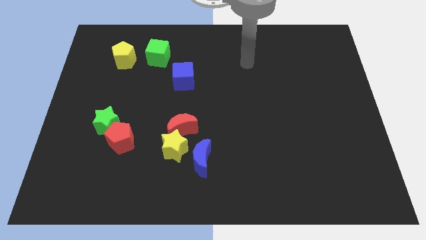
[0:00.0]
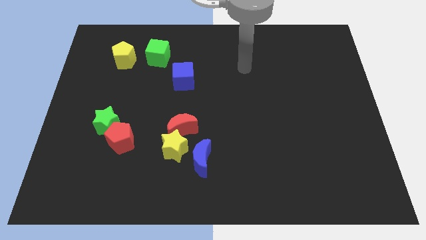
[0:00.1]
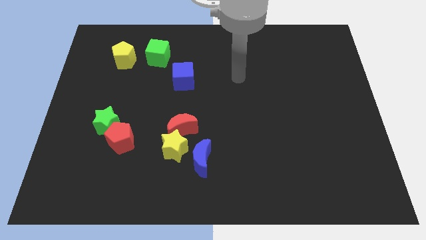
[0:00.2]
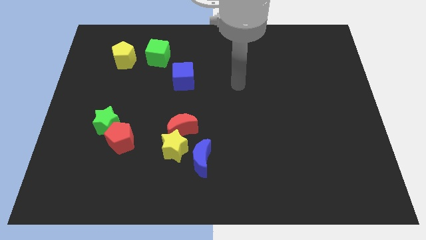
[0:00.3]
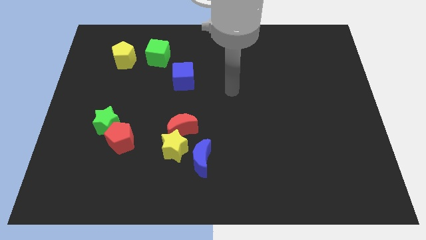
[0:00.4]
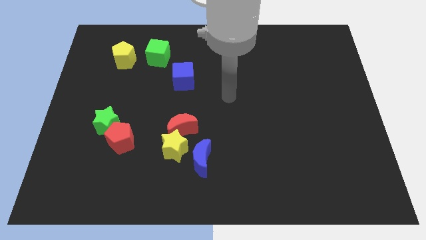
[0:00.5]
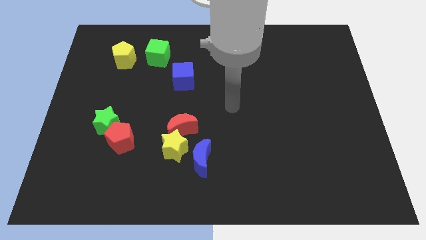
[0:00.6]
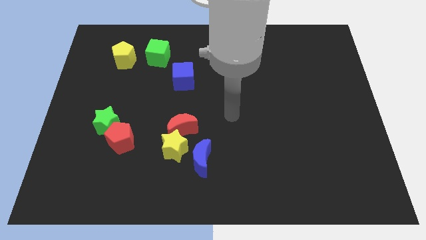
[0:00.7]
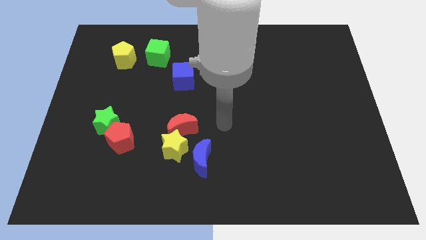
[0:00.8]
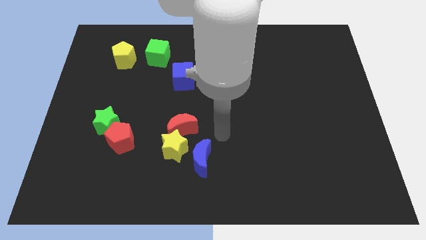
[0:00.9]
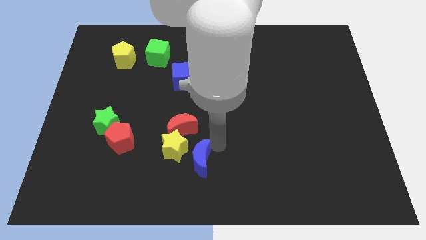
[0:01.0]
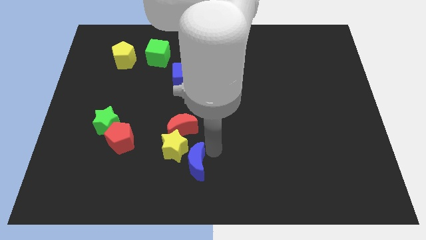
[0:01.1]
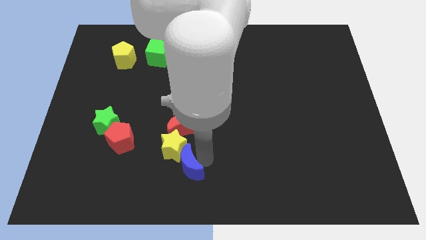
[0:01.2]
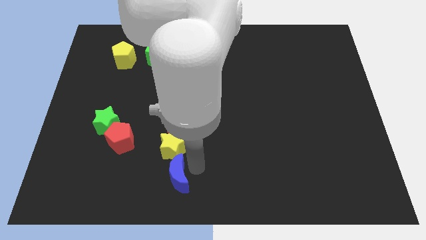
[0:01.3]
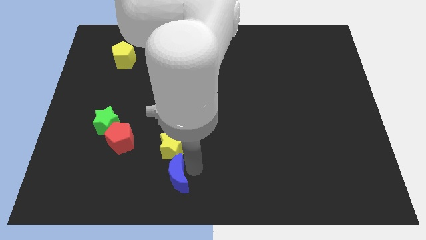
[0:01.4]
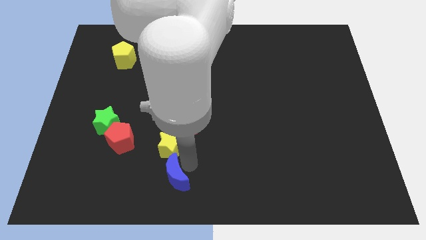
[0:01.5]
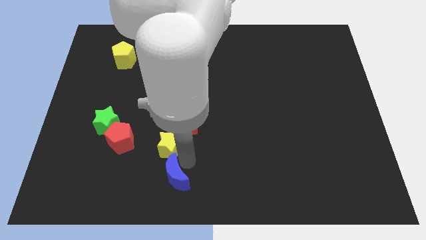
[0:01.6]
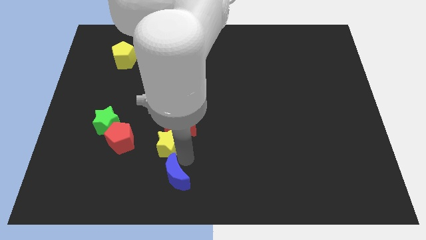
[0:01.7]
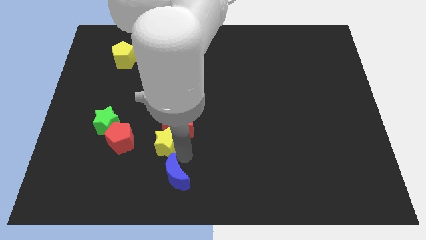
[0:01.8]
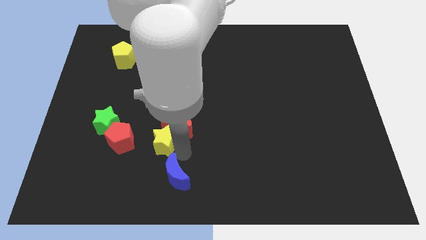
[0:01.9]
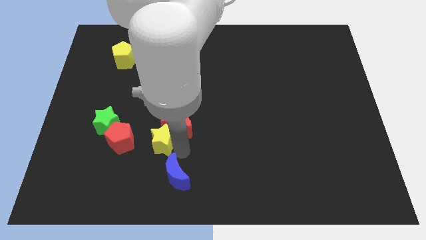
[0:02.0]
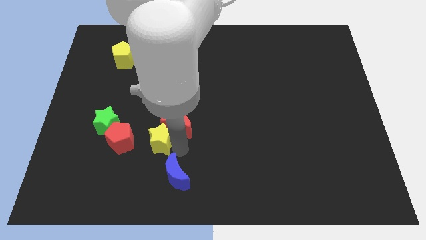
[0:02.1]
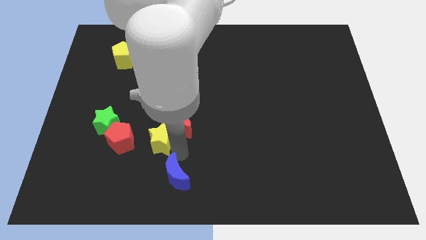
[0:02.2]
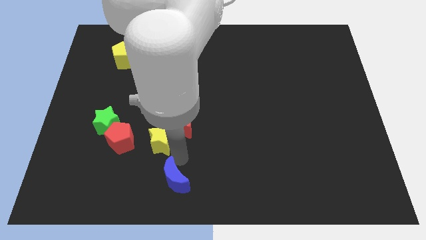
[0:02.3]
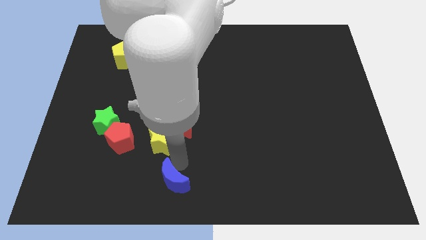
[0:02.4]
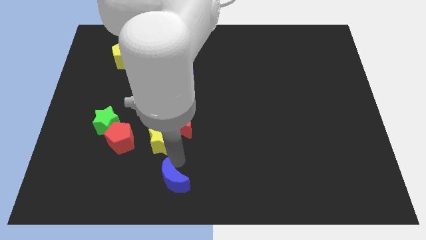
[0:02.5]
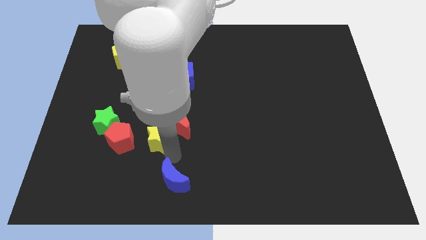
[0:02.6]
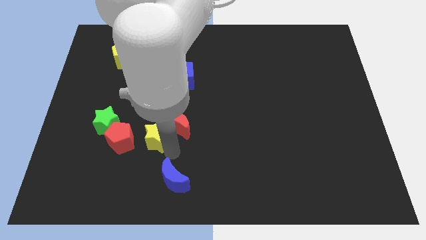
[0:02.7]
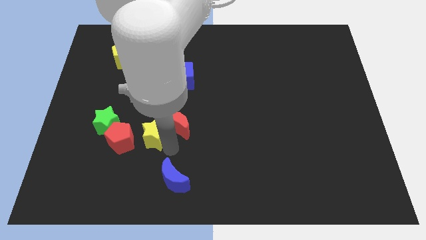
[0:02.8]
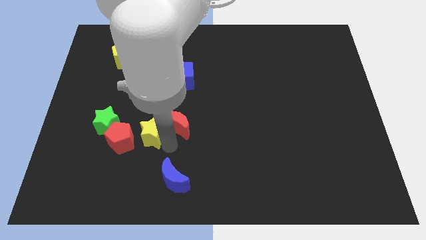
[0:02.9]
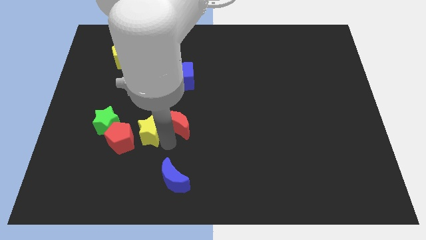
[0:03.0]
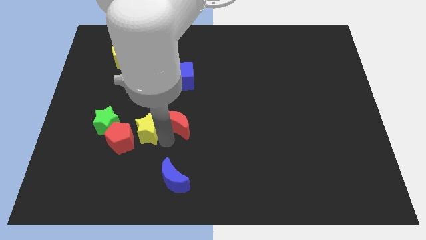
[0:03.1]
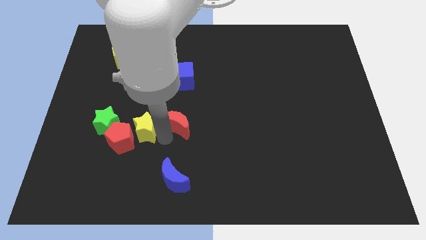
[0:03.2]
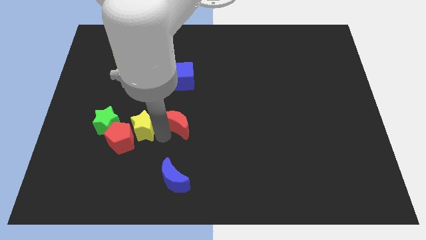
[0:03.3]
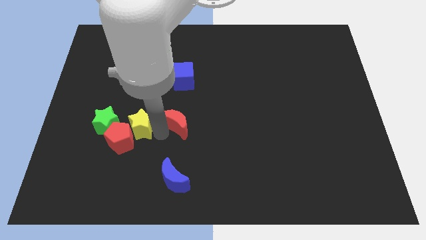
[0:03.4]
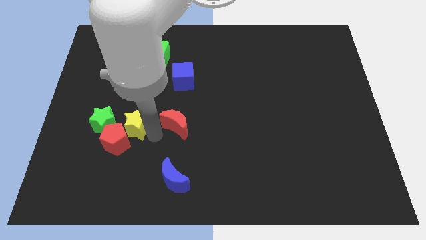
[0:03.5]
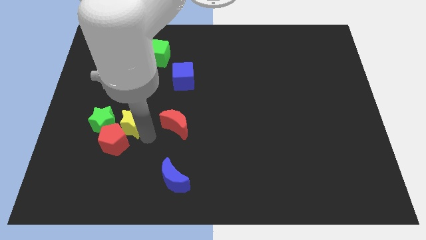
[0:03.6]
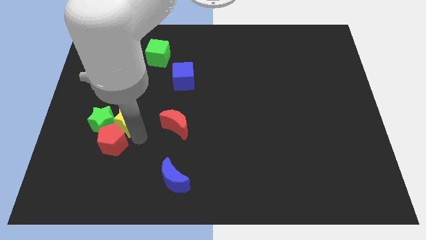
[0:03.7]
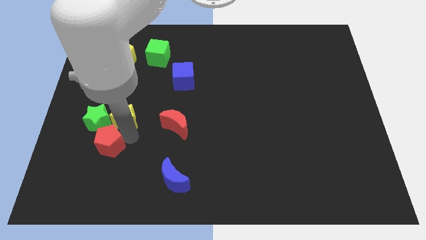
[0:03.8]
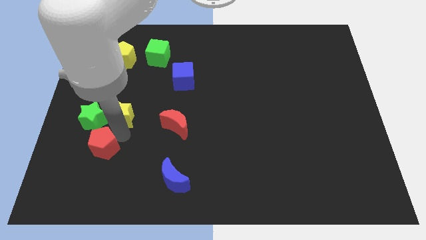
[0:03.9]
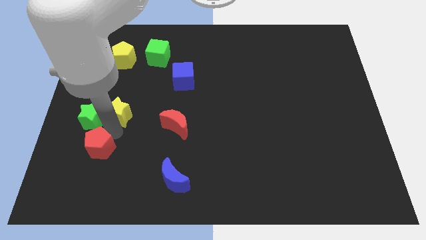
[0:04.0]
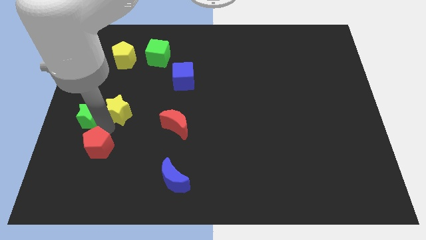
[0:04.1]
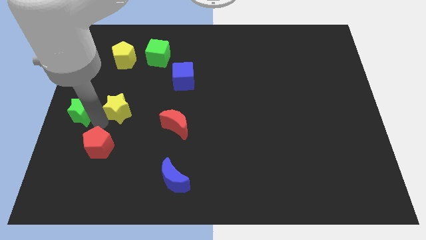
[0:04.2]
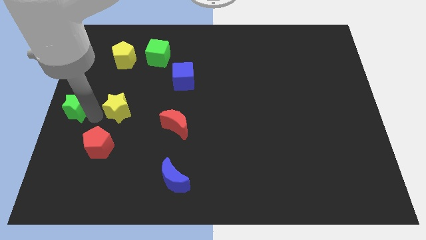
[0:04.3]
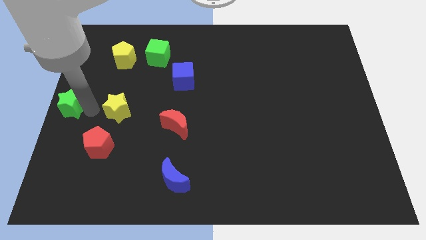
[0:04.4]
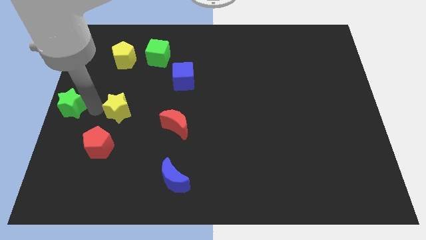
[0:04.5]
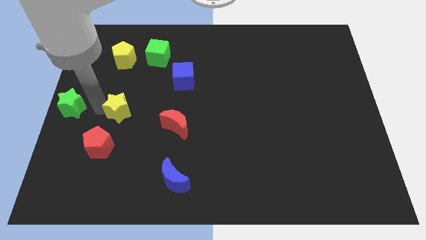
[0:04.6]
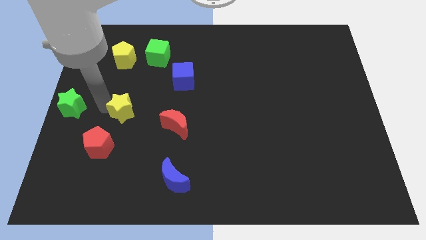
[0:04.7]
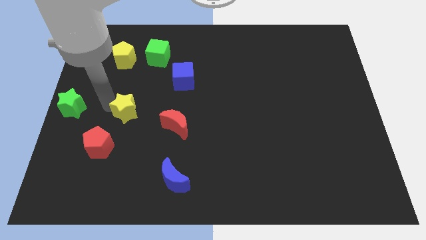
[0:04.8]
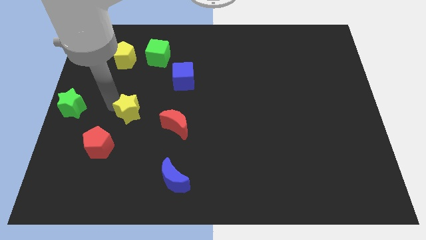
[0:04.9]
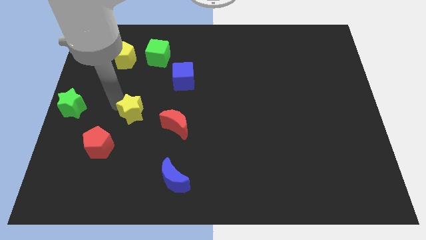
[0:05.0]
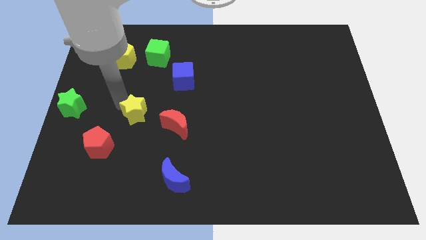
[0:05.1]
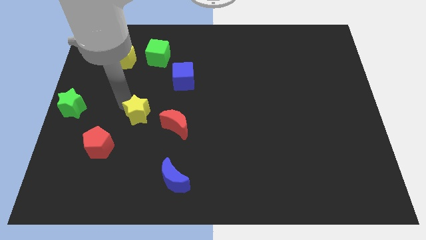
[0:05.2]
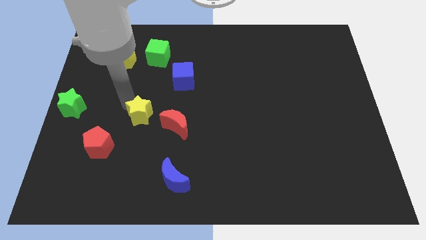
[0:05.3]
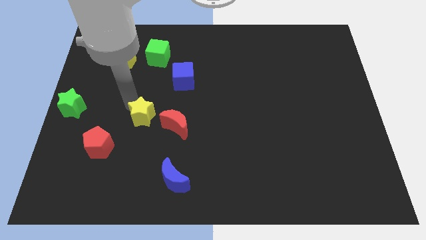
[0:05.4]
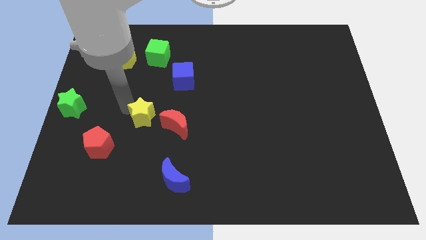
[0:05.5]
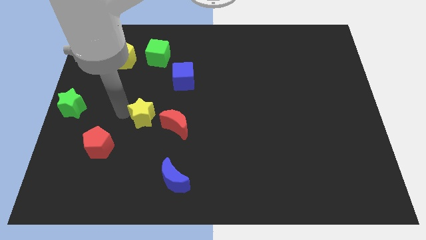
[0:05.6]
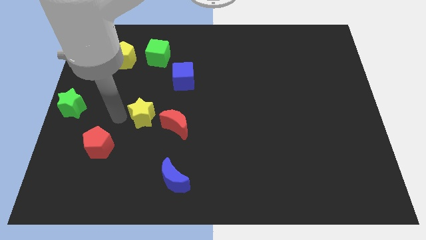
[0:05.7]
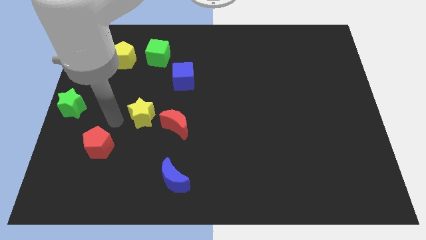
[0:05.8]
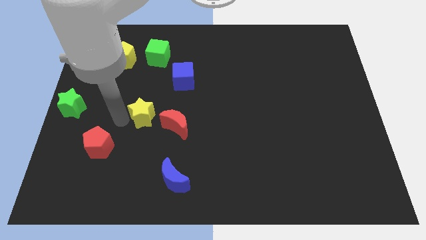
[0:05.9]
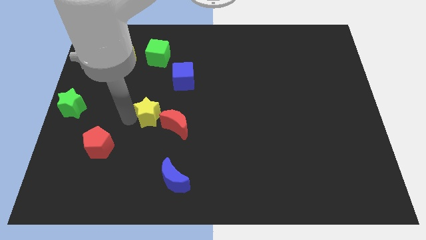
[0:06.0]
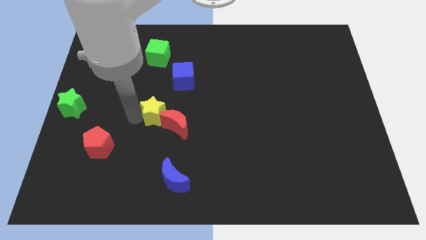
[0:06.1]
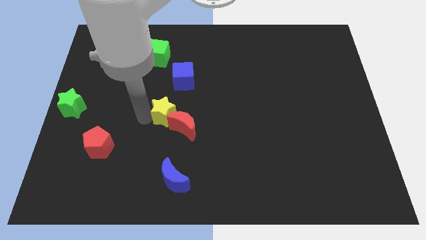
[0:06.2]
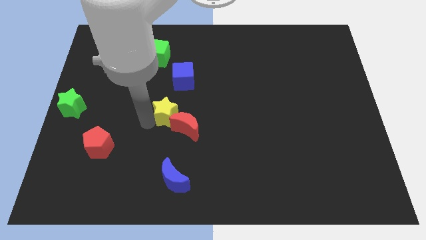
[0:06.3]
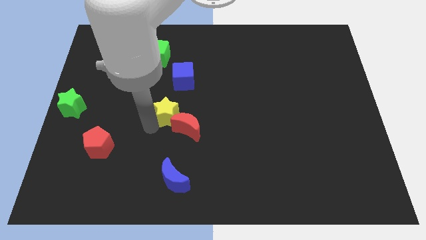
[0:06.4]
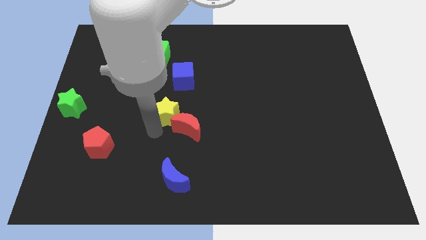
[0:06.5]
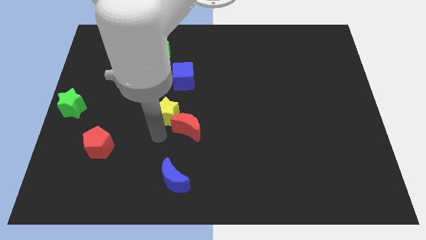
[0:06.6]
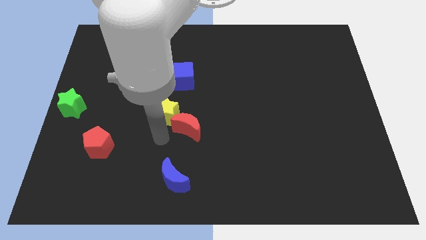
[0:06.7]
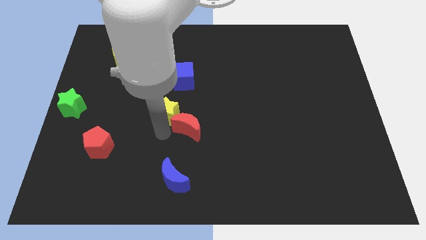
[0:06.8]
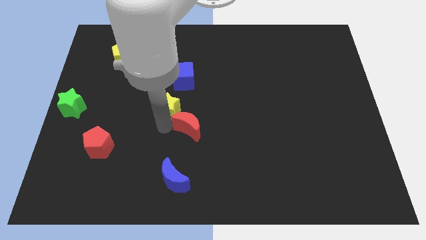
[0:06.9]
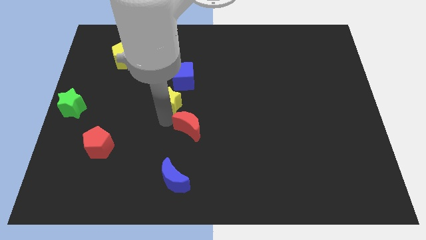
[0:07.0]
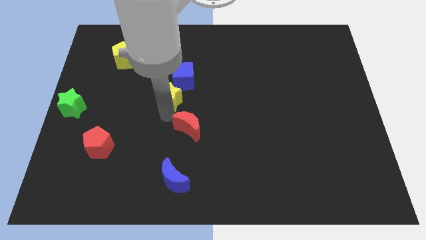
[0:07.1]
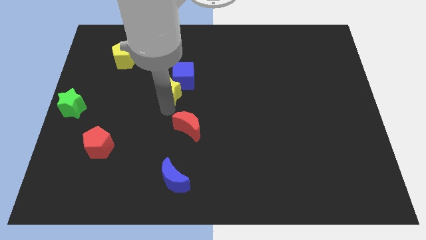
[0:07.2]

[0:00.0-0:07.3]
put the yellow star to the blue cube
